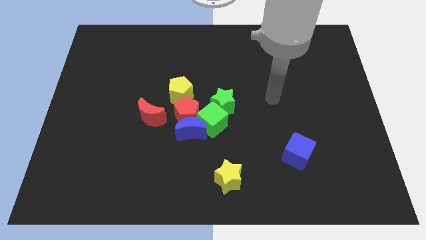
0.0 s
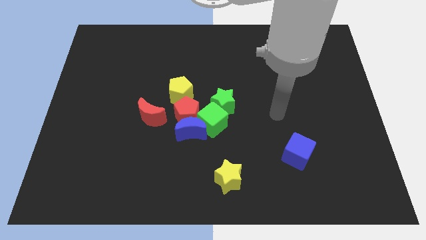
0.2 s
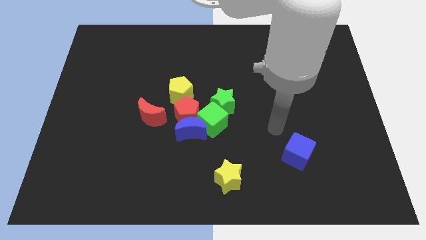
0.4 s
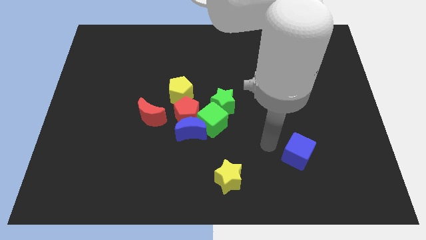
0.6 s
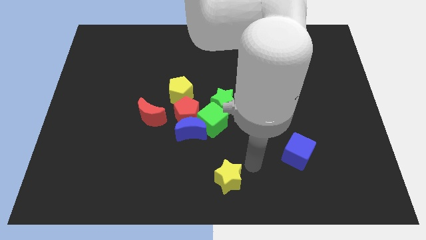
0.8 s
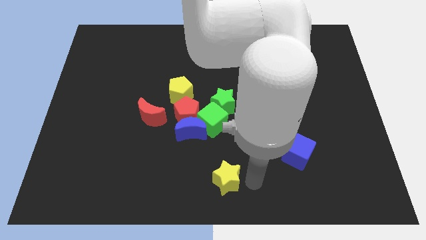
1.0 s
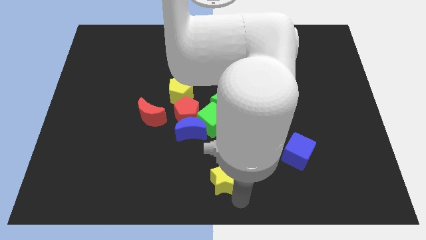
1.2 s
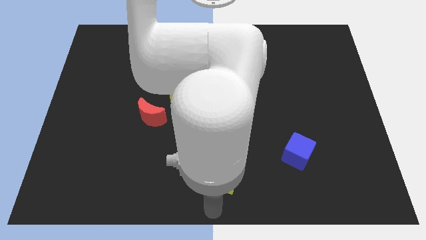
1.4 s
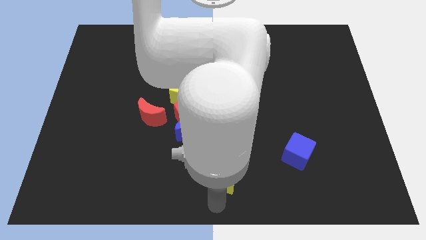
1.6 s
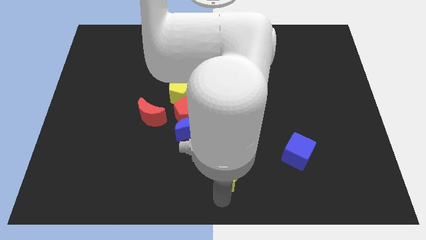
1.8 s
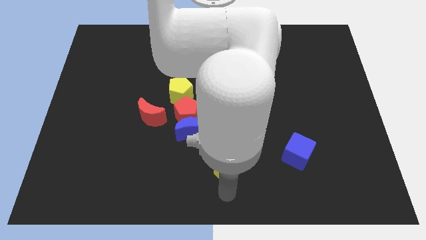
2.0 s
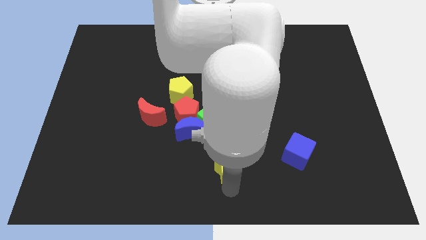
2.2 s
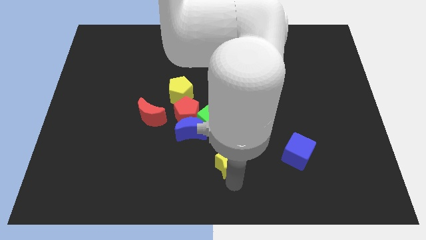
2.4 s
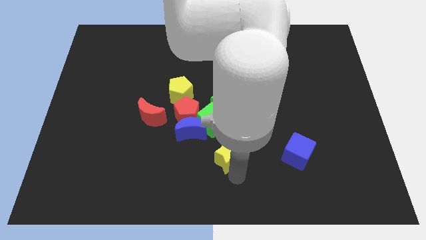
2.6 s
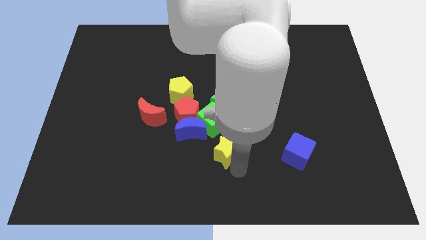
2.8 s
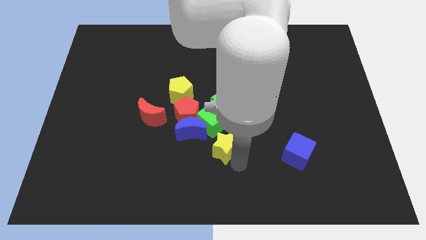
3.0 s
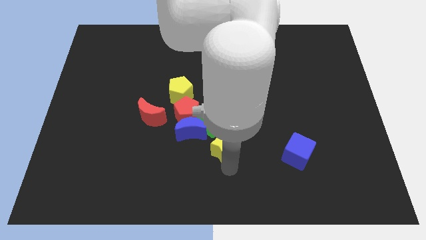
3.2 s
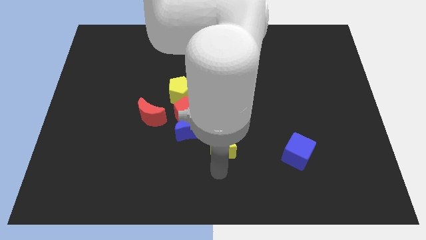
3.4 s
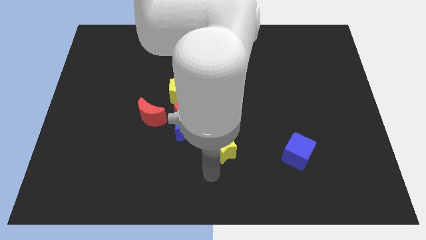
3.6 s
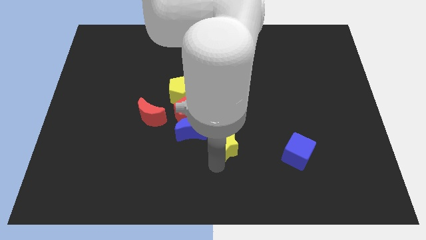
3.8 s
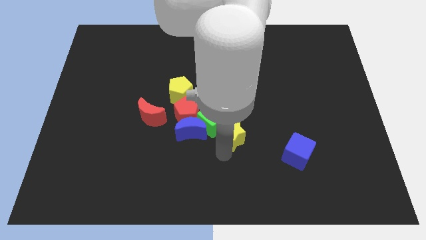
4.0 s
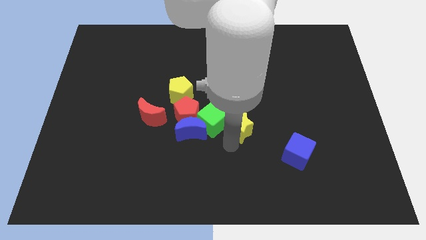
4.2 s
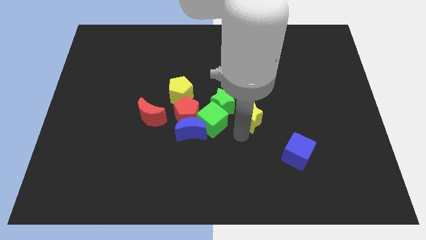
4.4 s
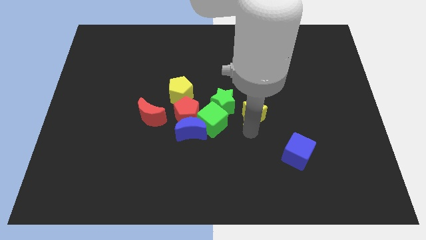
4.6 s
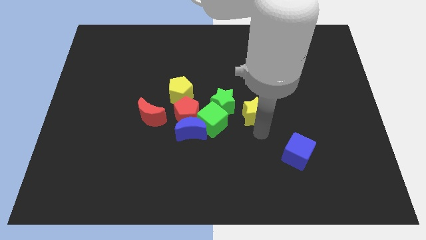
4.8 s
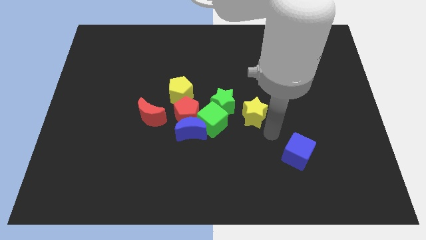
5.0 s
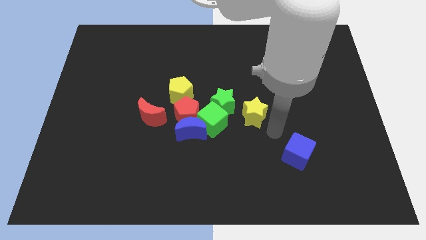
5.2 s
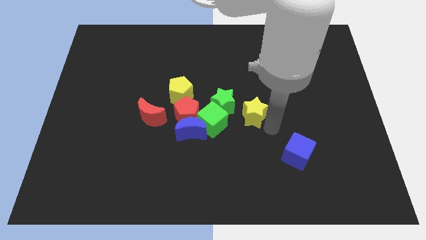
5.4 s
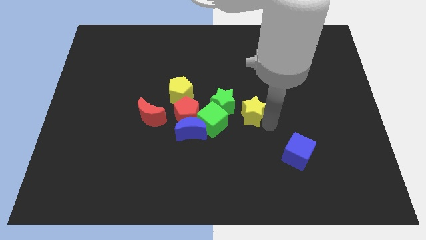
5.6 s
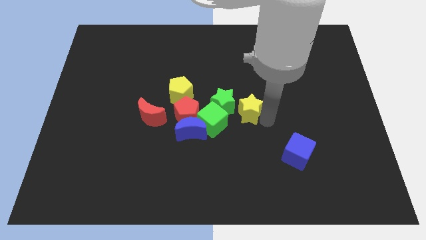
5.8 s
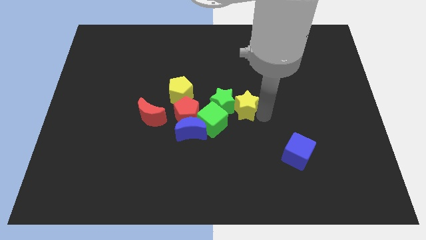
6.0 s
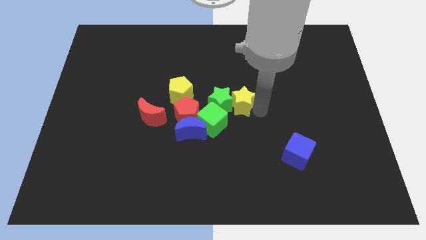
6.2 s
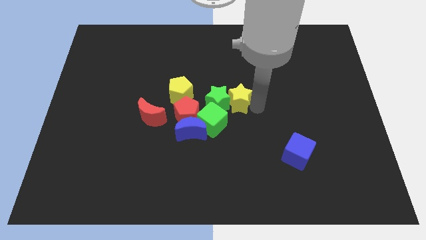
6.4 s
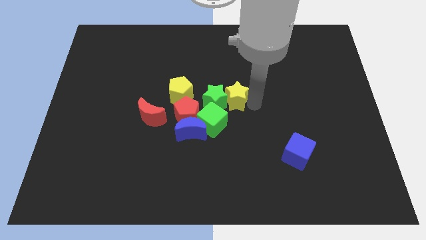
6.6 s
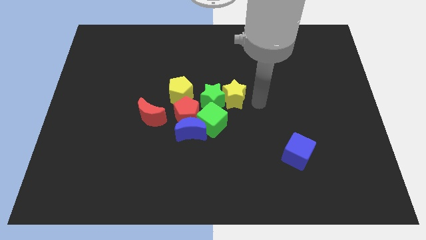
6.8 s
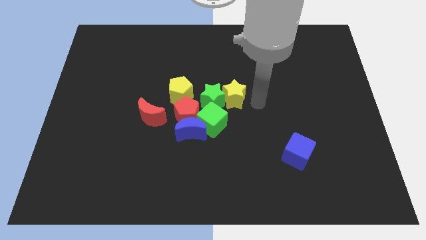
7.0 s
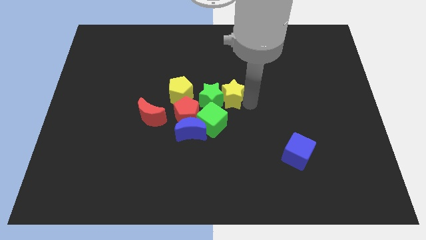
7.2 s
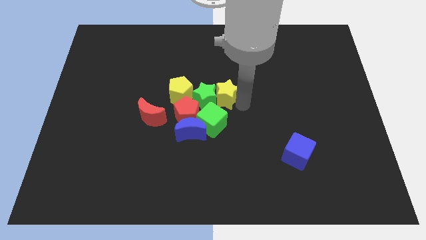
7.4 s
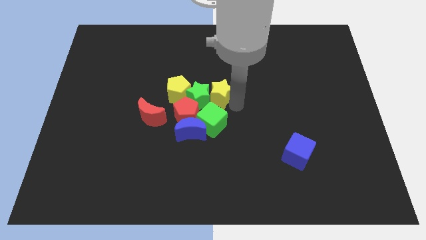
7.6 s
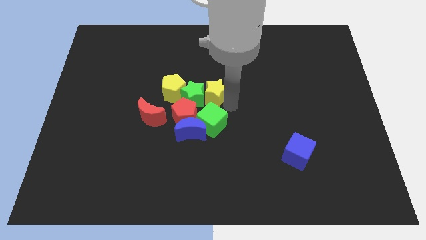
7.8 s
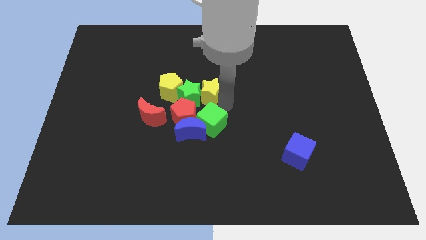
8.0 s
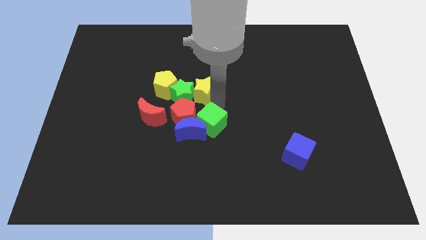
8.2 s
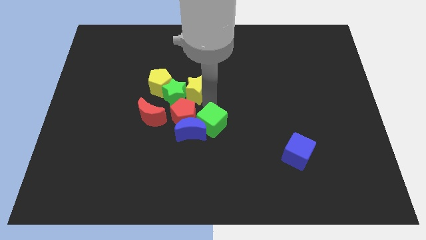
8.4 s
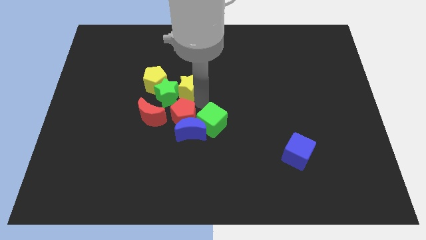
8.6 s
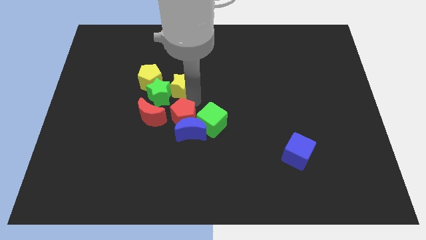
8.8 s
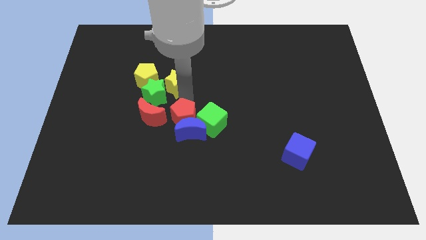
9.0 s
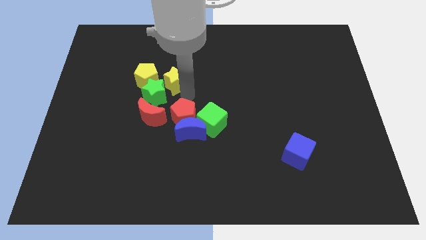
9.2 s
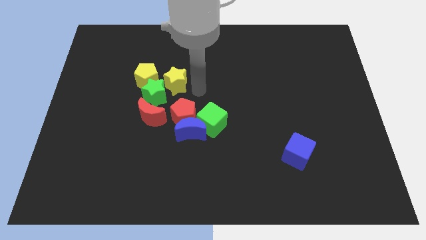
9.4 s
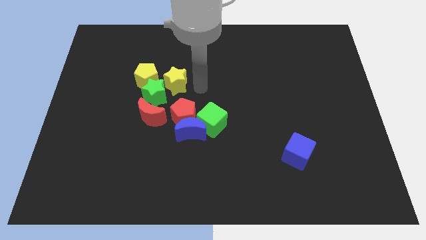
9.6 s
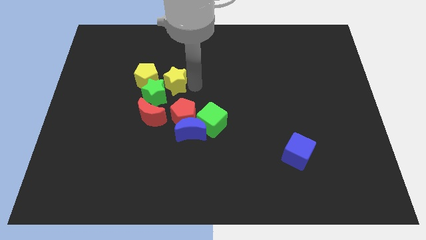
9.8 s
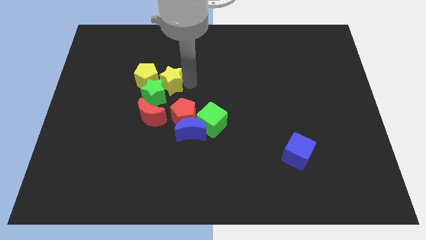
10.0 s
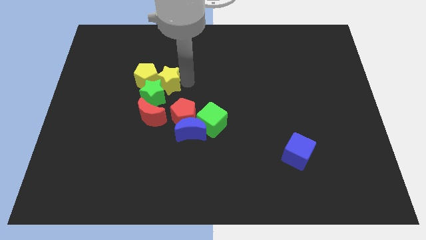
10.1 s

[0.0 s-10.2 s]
push the yellow star towards the yellow pentagon

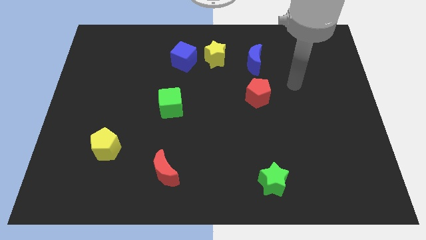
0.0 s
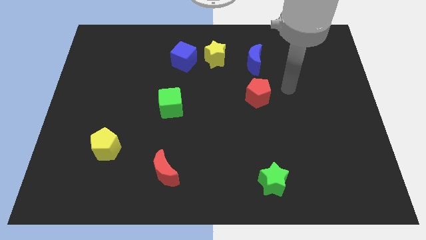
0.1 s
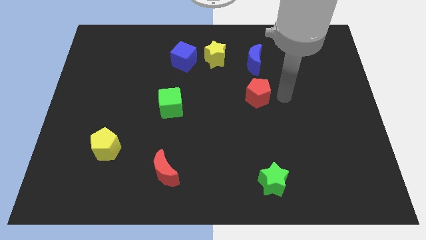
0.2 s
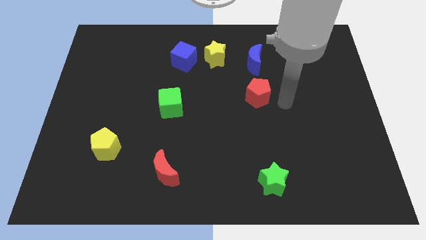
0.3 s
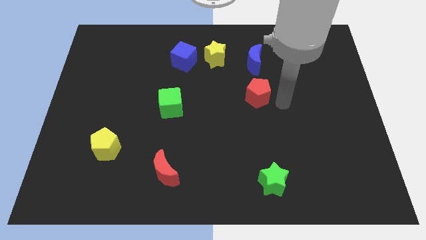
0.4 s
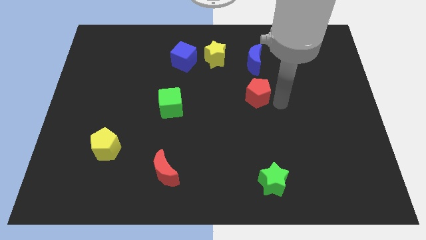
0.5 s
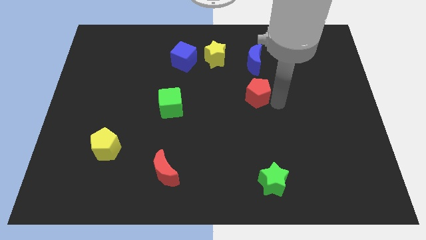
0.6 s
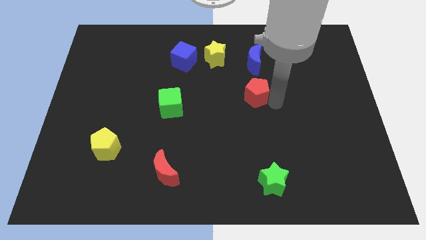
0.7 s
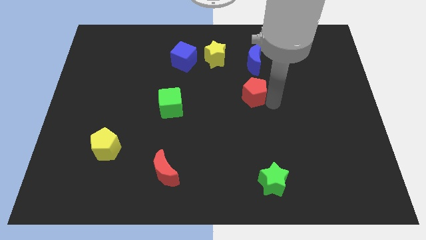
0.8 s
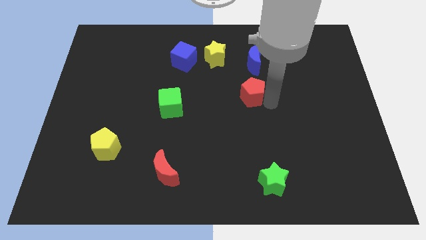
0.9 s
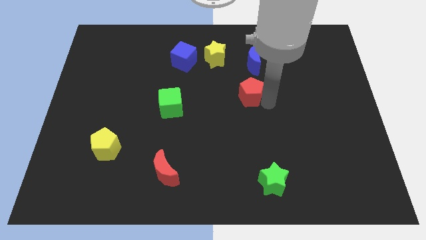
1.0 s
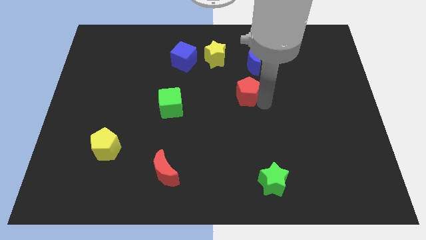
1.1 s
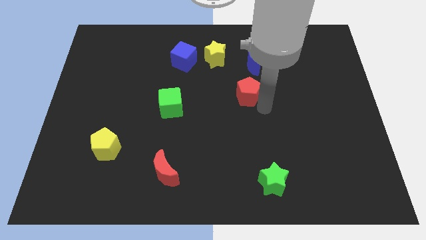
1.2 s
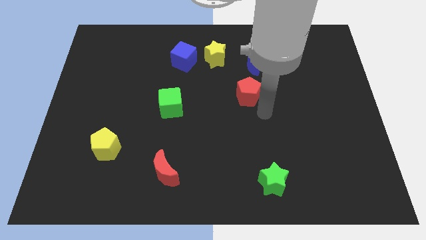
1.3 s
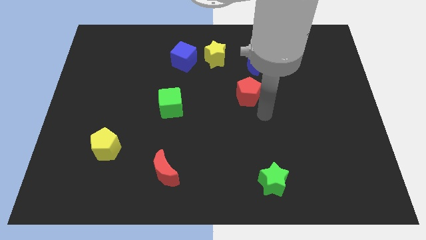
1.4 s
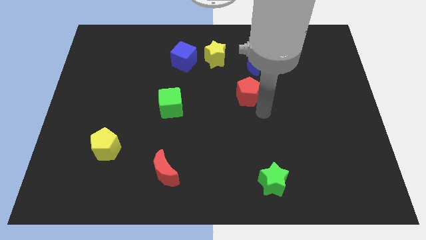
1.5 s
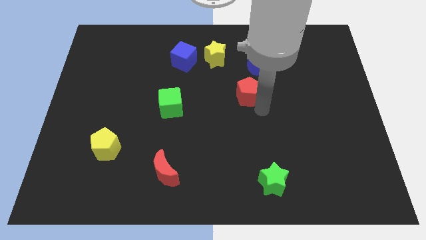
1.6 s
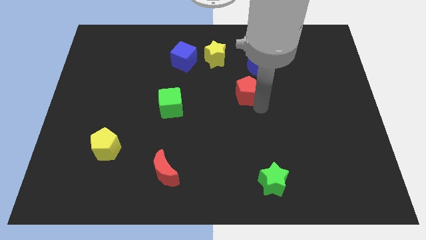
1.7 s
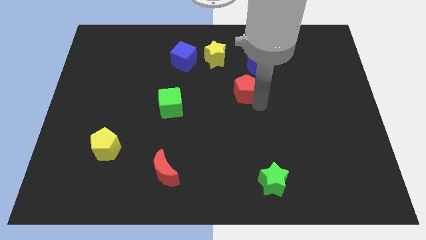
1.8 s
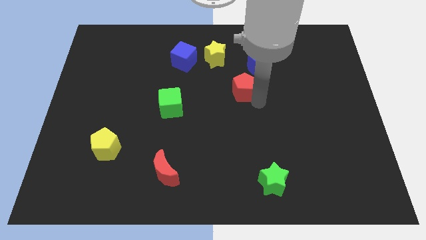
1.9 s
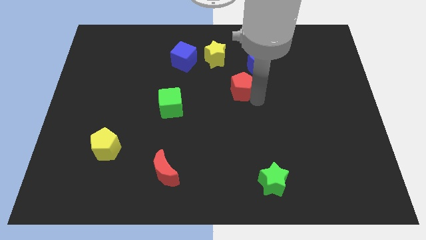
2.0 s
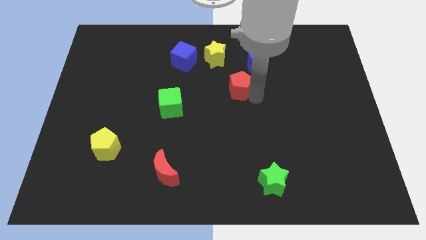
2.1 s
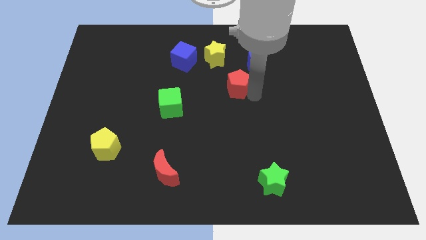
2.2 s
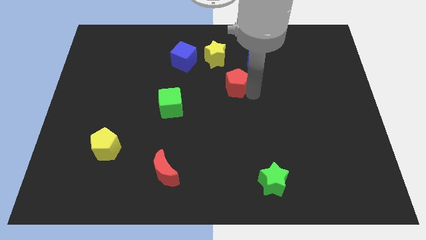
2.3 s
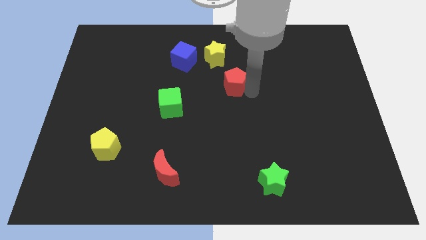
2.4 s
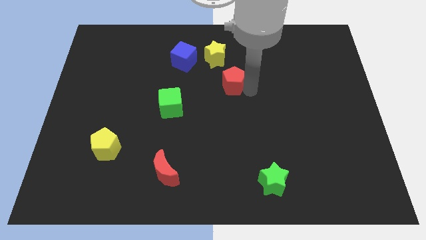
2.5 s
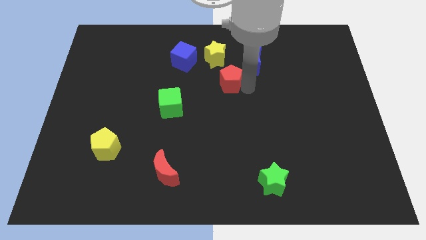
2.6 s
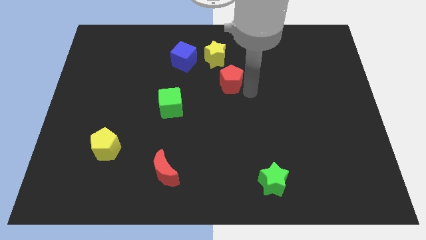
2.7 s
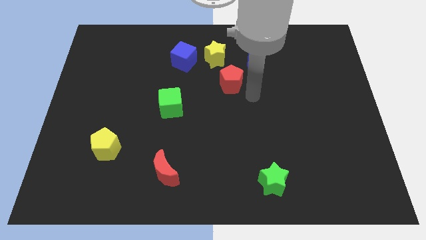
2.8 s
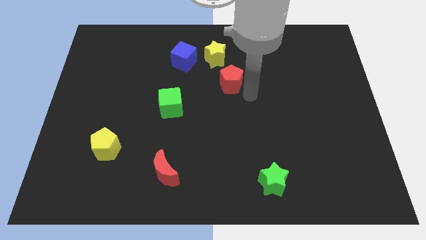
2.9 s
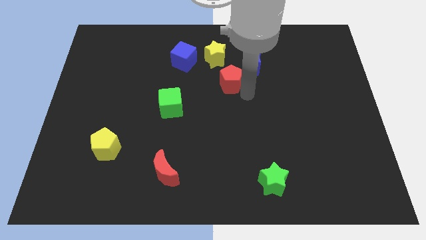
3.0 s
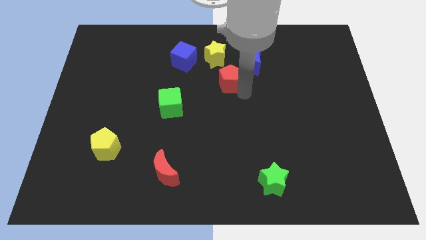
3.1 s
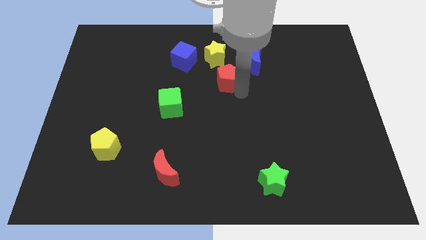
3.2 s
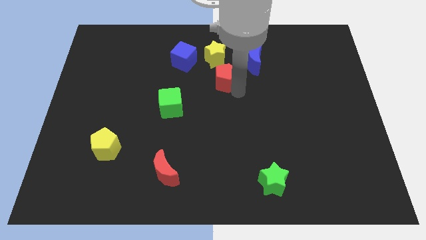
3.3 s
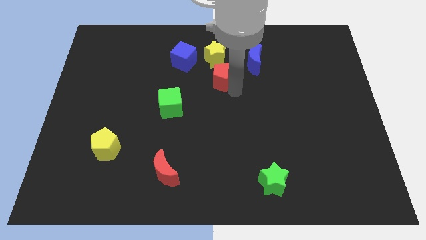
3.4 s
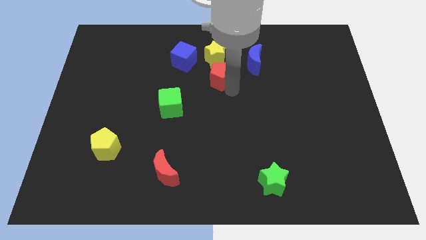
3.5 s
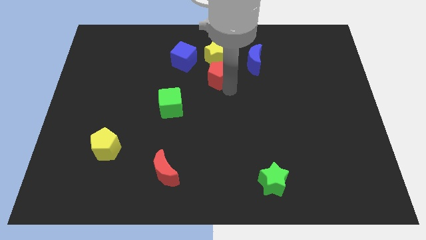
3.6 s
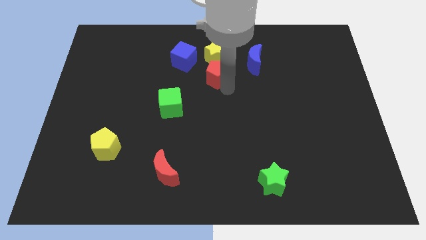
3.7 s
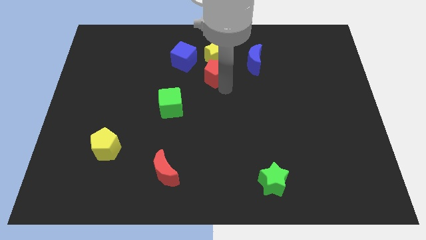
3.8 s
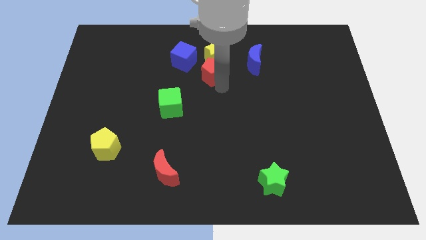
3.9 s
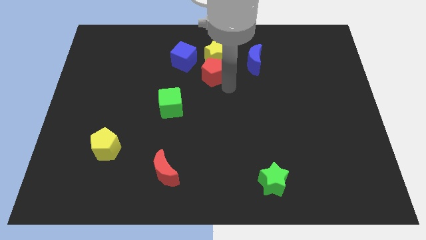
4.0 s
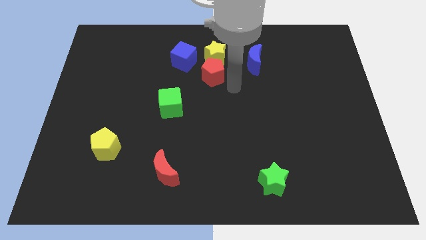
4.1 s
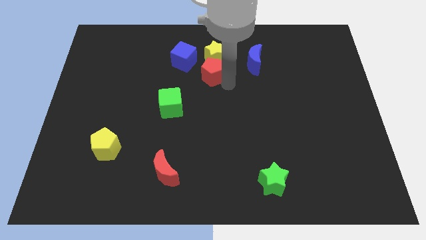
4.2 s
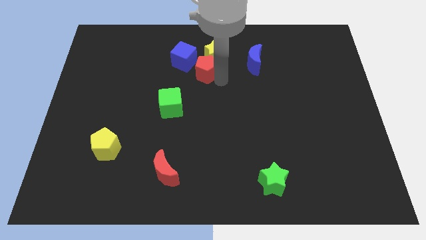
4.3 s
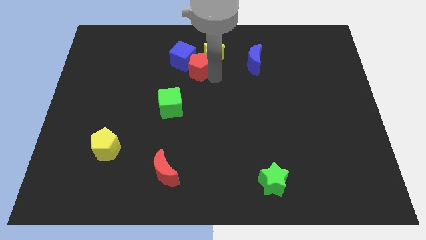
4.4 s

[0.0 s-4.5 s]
put the red pentagon close to the blue cube
